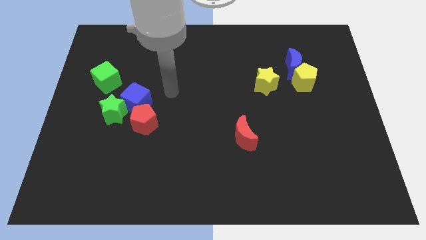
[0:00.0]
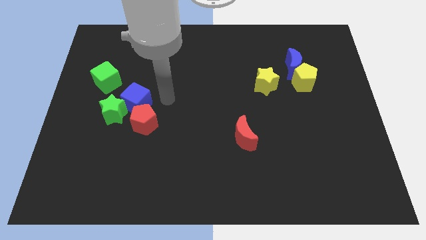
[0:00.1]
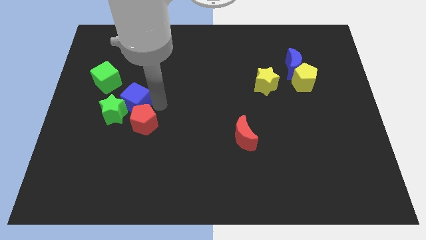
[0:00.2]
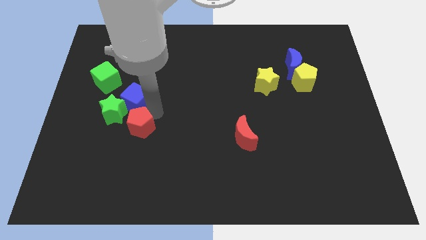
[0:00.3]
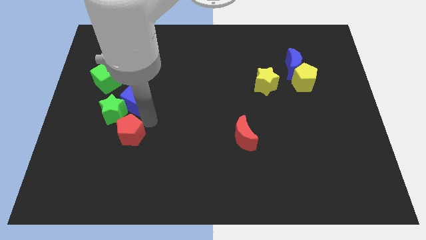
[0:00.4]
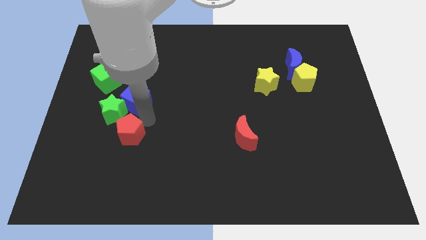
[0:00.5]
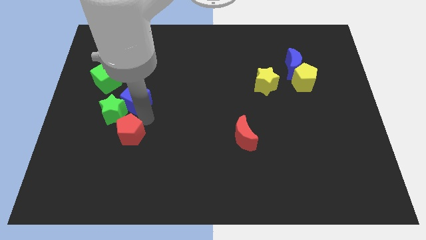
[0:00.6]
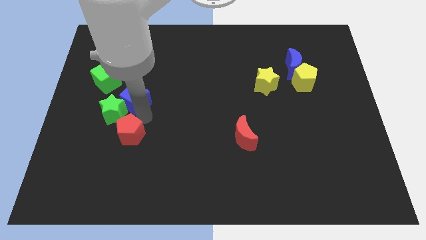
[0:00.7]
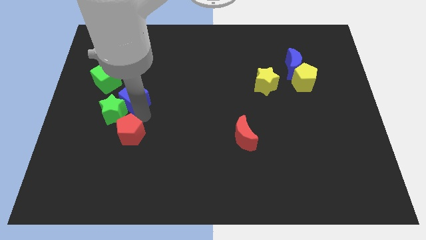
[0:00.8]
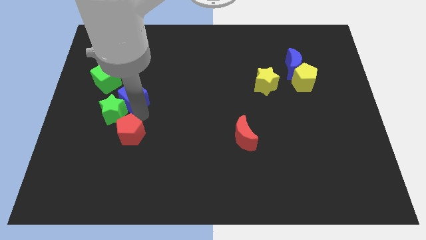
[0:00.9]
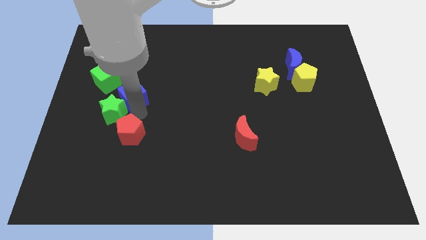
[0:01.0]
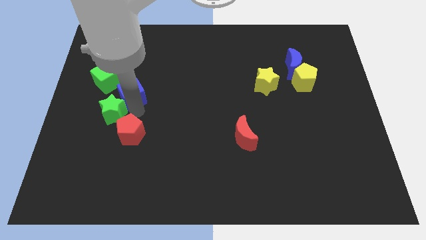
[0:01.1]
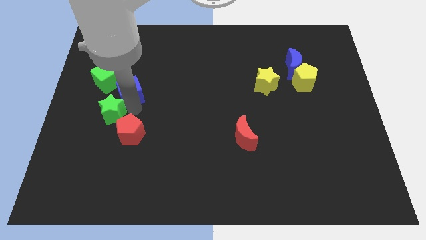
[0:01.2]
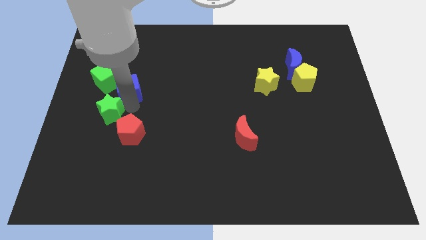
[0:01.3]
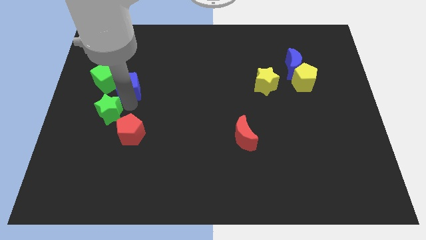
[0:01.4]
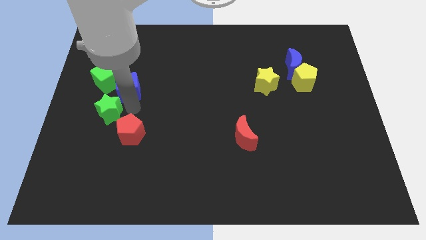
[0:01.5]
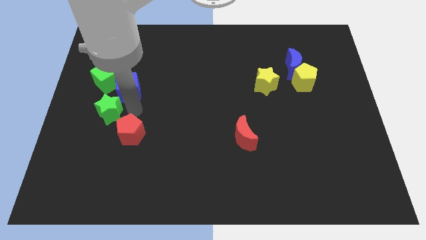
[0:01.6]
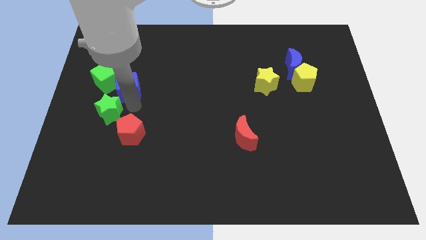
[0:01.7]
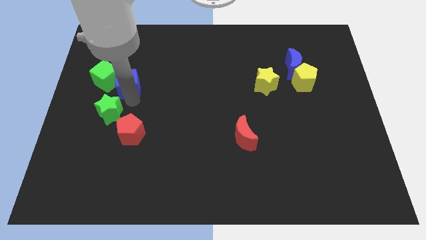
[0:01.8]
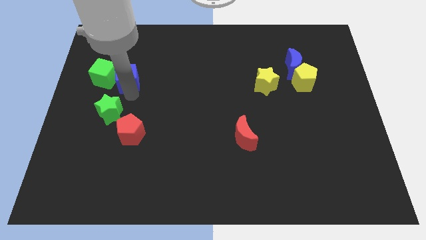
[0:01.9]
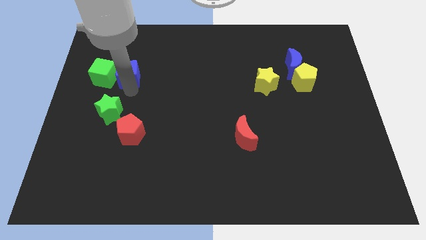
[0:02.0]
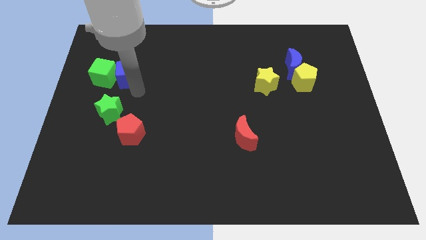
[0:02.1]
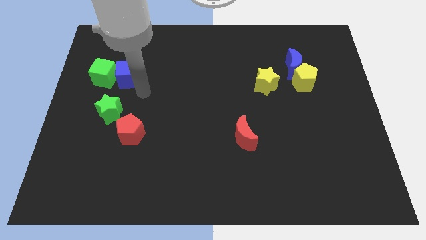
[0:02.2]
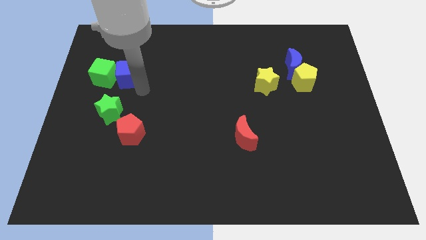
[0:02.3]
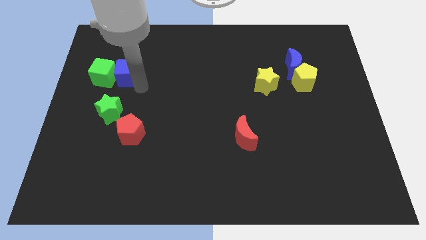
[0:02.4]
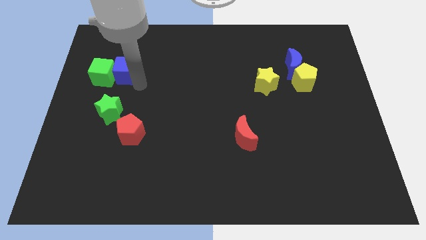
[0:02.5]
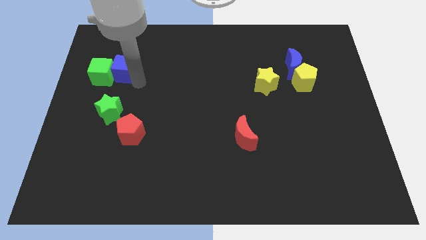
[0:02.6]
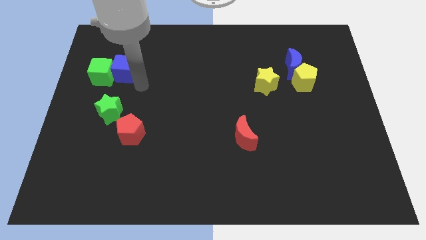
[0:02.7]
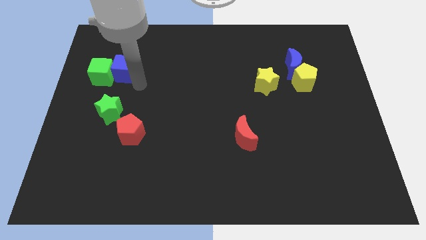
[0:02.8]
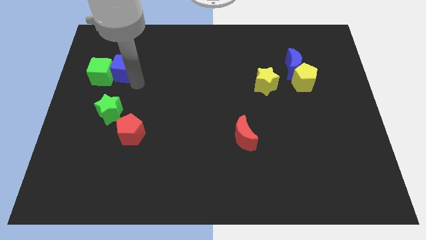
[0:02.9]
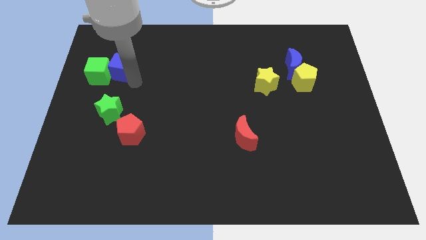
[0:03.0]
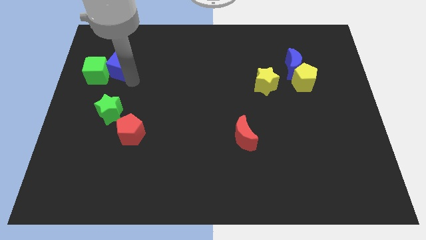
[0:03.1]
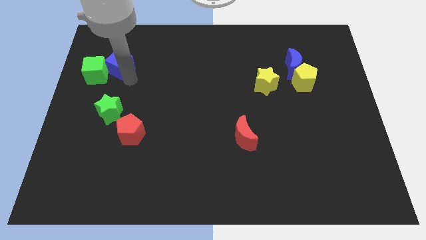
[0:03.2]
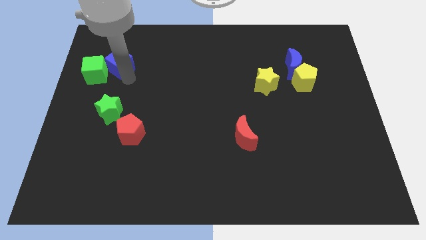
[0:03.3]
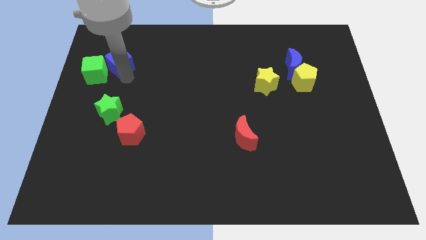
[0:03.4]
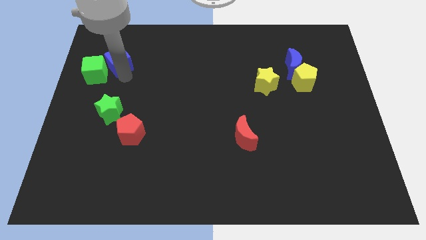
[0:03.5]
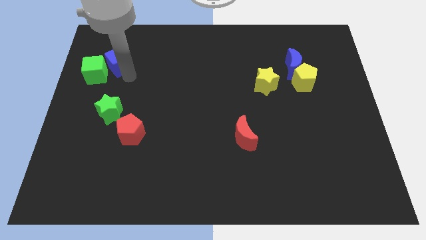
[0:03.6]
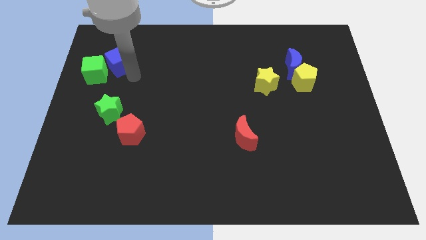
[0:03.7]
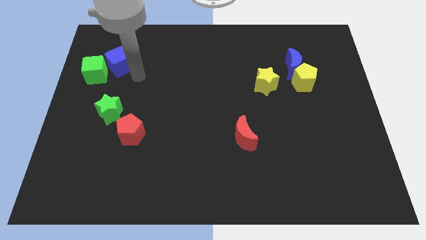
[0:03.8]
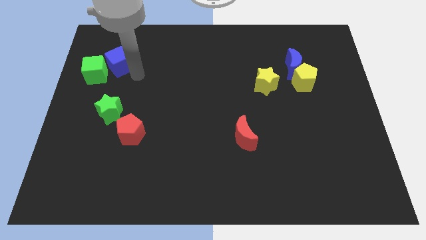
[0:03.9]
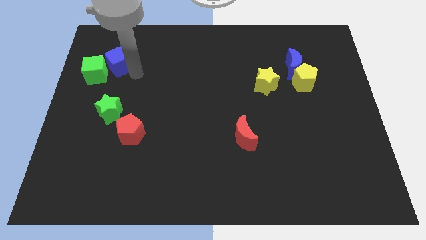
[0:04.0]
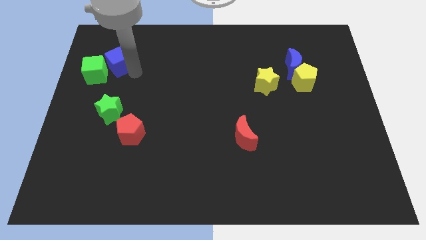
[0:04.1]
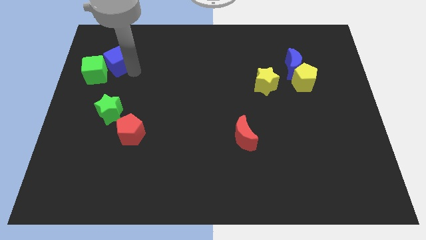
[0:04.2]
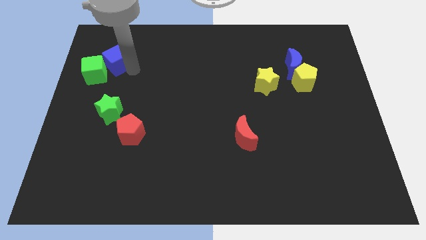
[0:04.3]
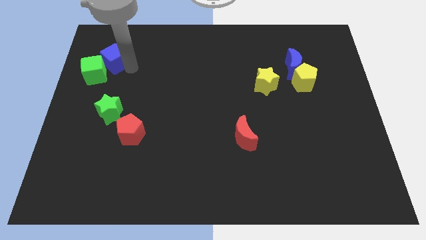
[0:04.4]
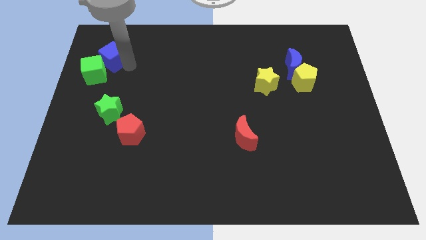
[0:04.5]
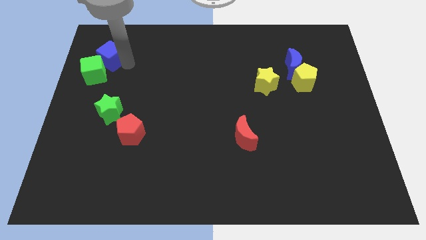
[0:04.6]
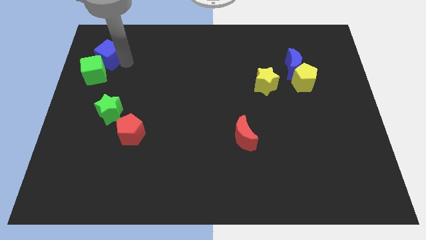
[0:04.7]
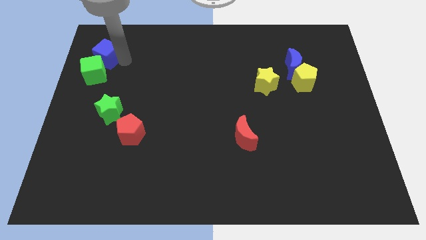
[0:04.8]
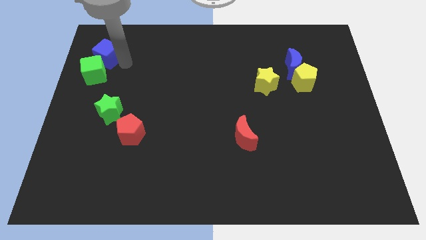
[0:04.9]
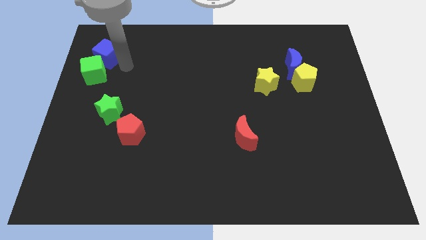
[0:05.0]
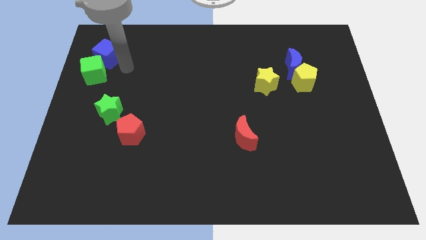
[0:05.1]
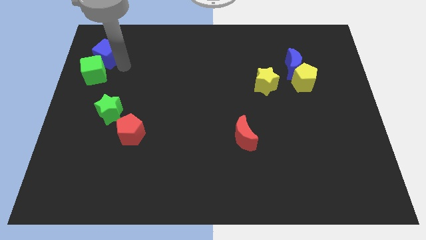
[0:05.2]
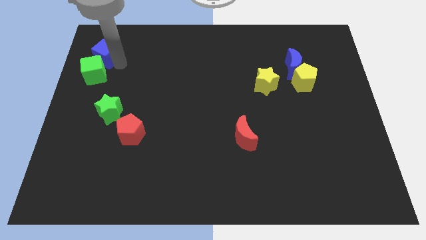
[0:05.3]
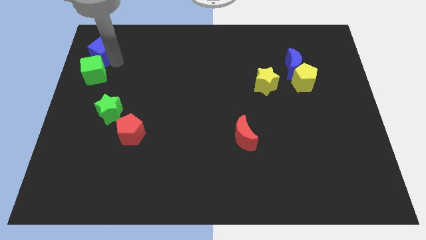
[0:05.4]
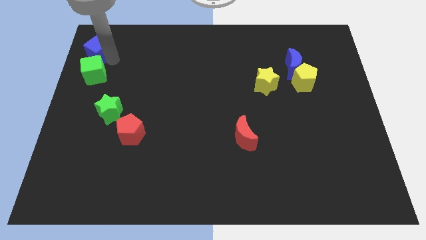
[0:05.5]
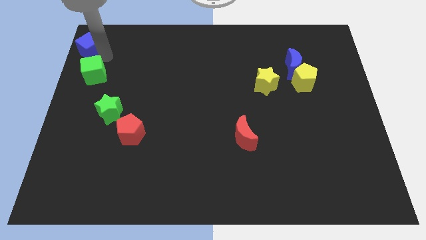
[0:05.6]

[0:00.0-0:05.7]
move the blue cube to the top left of the board

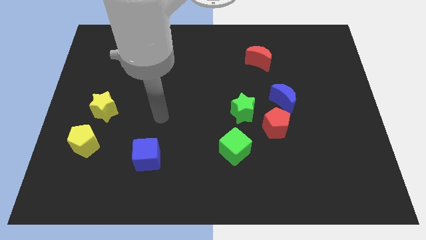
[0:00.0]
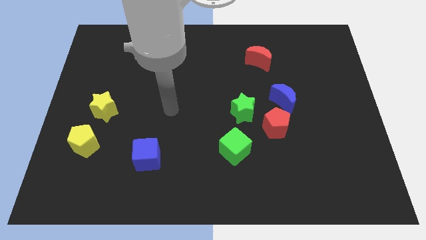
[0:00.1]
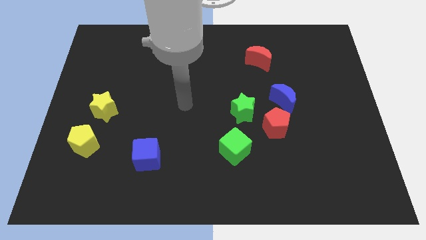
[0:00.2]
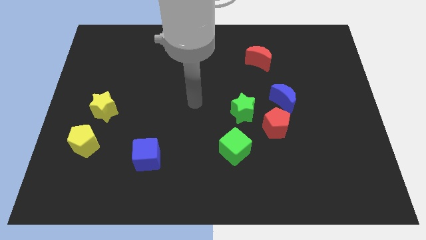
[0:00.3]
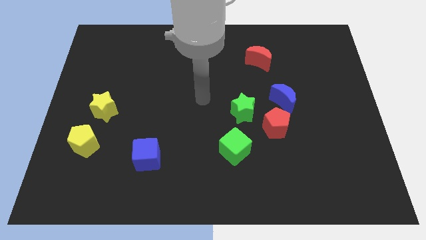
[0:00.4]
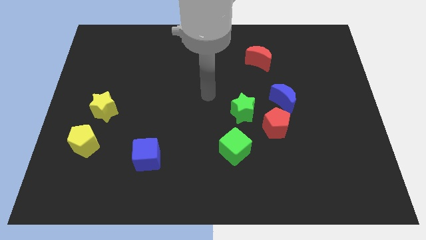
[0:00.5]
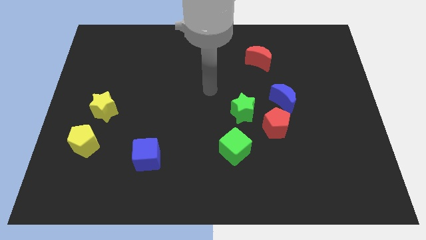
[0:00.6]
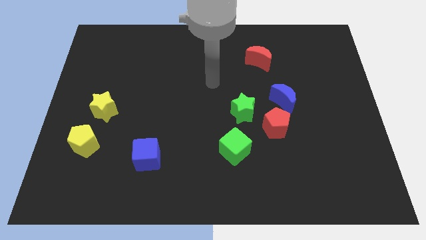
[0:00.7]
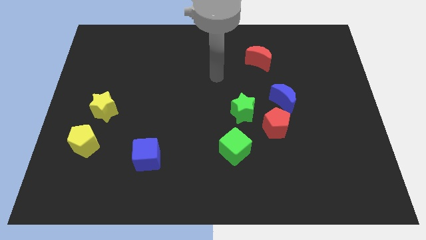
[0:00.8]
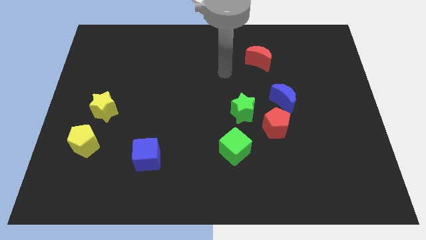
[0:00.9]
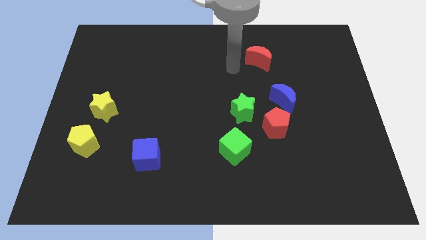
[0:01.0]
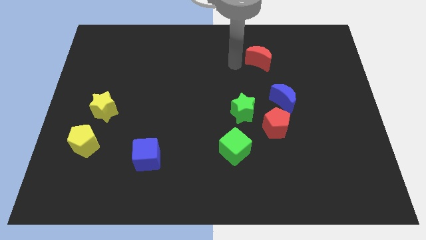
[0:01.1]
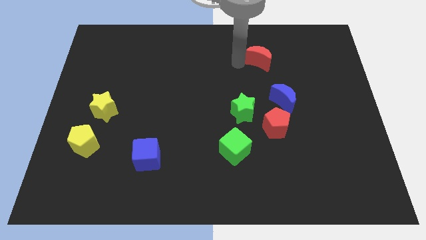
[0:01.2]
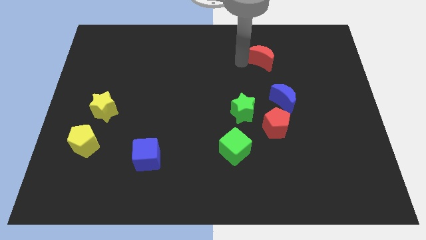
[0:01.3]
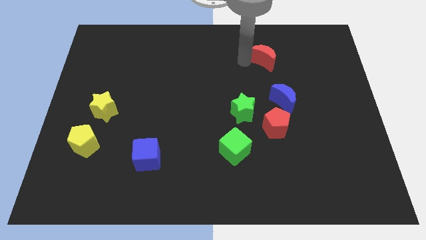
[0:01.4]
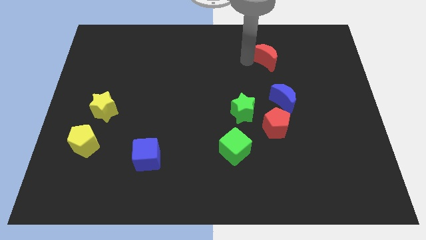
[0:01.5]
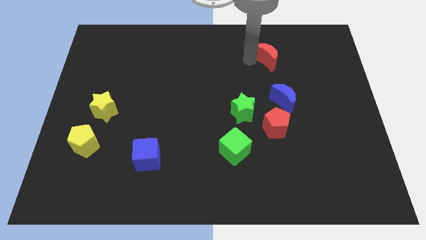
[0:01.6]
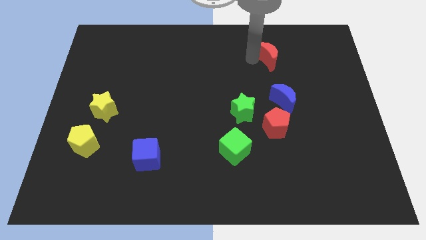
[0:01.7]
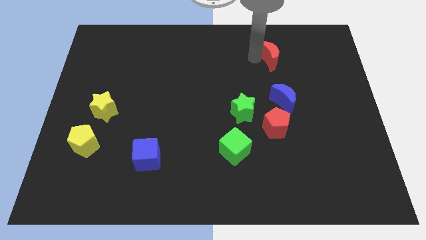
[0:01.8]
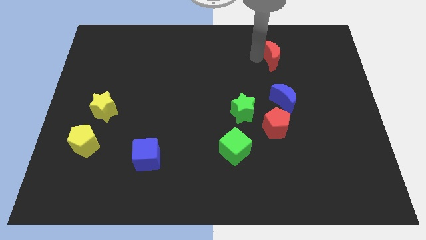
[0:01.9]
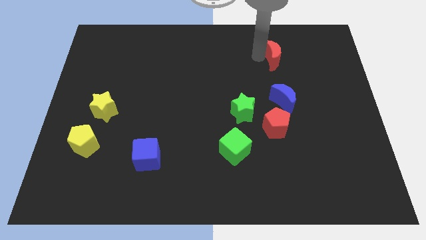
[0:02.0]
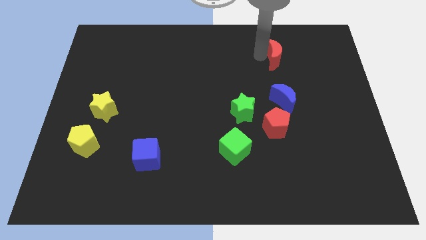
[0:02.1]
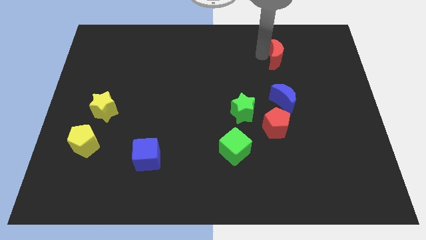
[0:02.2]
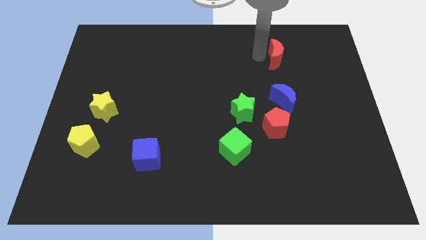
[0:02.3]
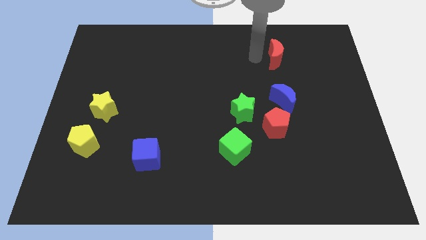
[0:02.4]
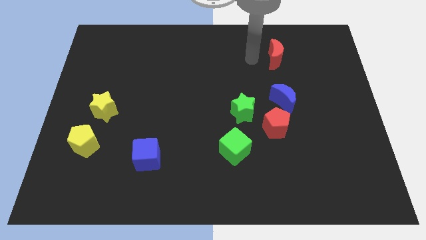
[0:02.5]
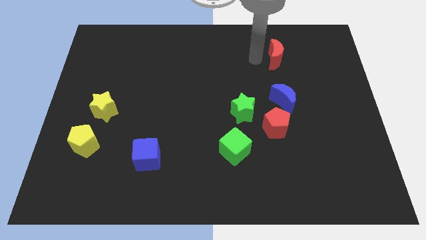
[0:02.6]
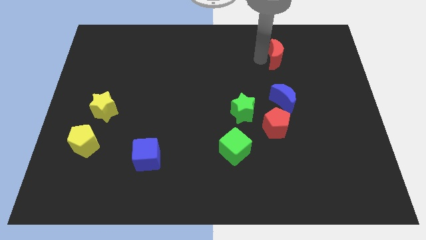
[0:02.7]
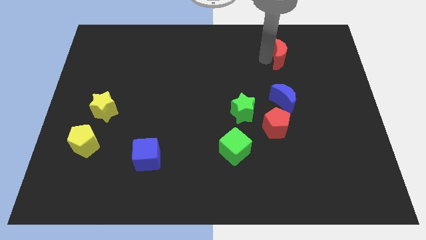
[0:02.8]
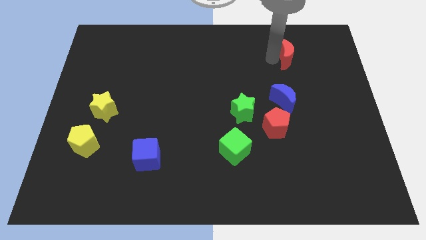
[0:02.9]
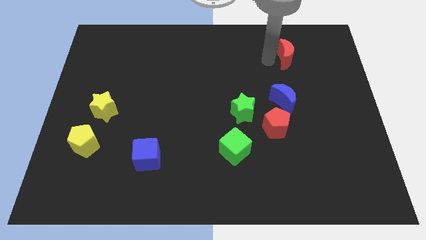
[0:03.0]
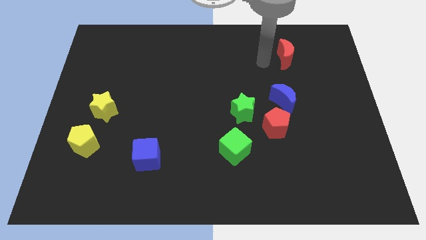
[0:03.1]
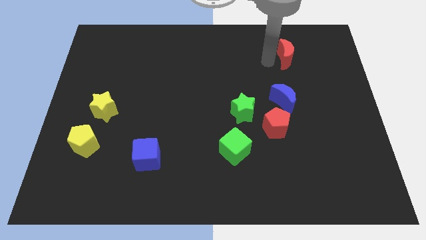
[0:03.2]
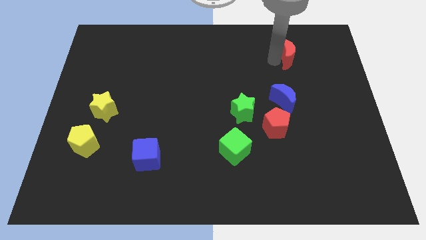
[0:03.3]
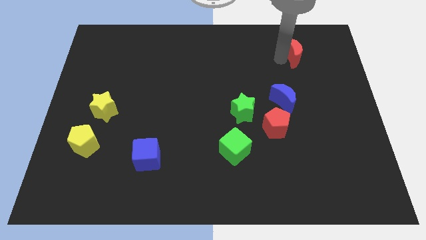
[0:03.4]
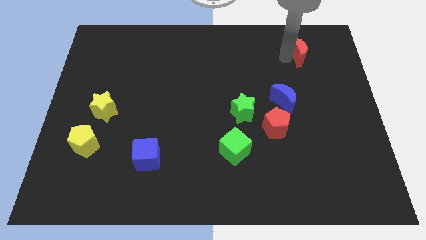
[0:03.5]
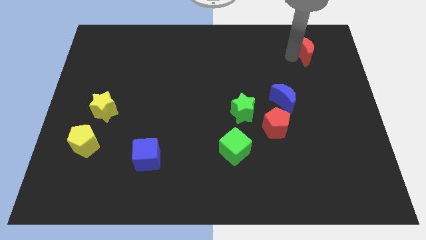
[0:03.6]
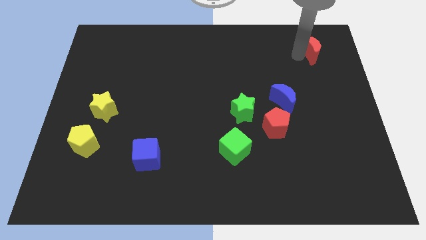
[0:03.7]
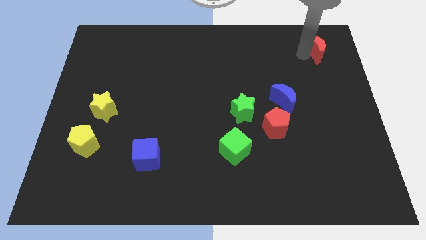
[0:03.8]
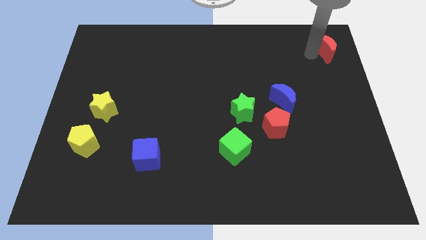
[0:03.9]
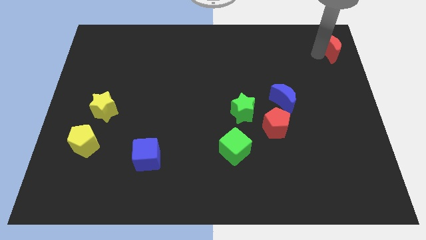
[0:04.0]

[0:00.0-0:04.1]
move the red moon to the top right
